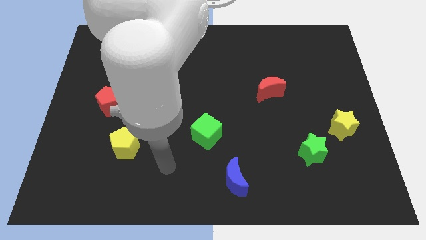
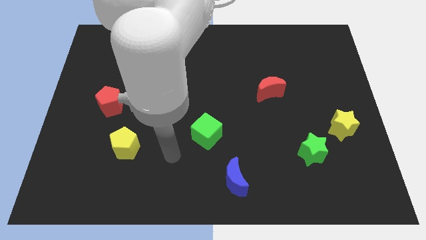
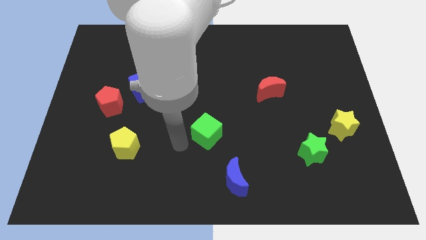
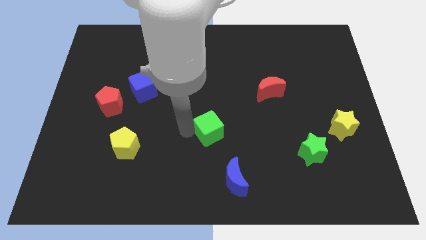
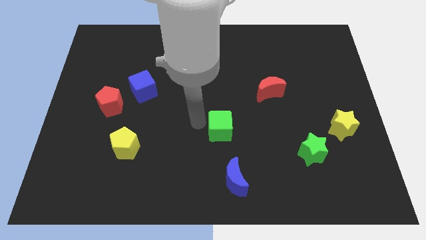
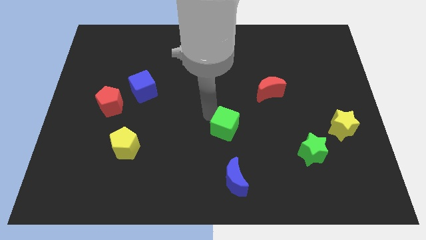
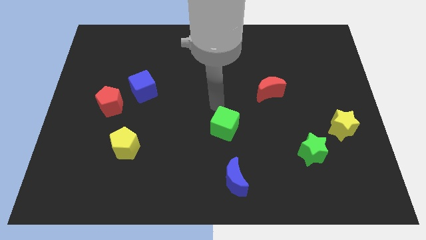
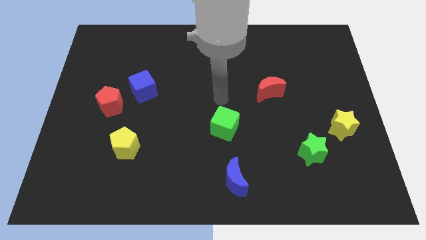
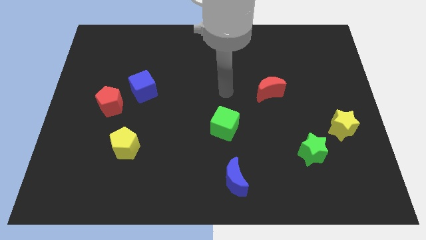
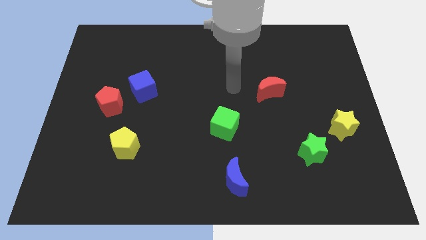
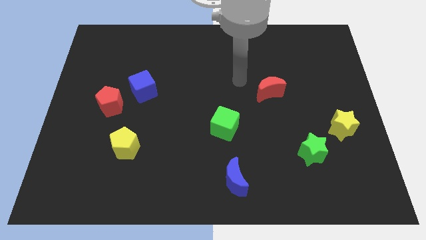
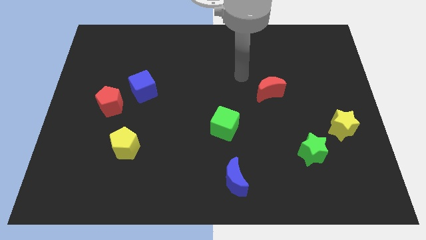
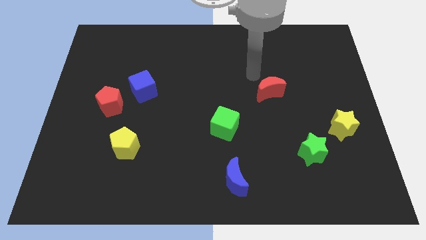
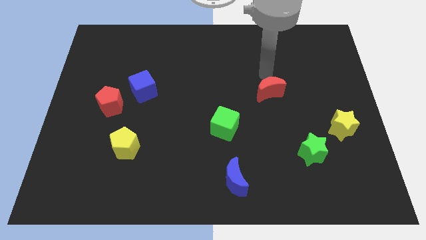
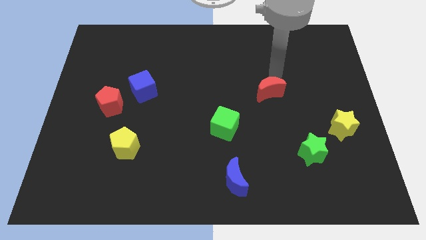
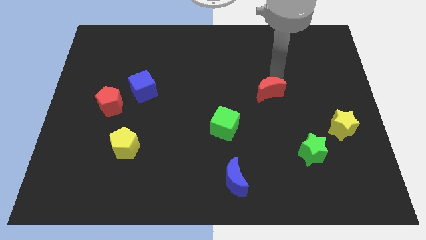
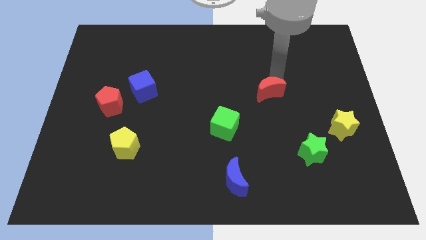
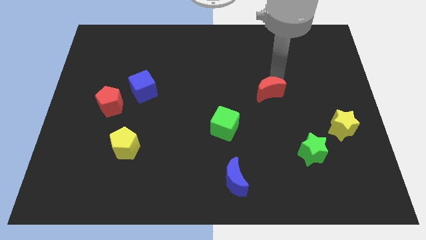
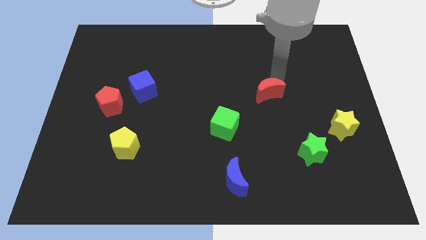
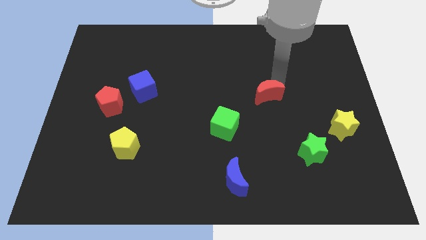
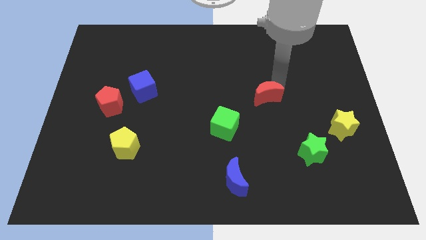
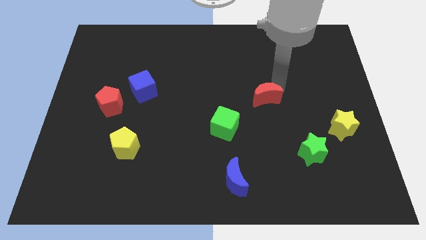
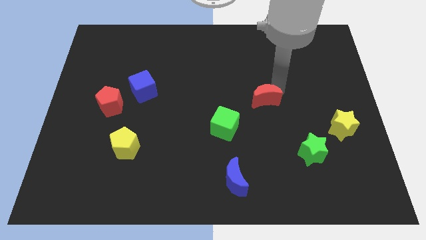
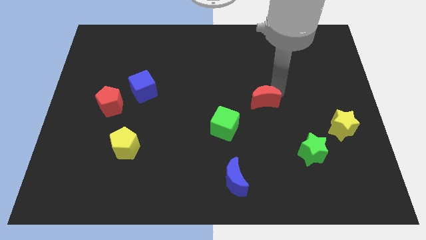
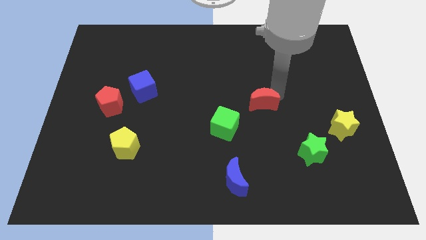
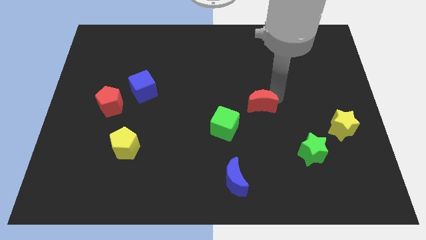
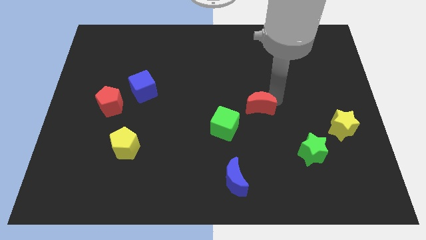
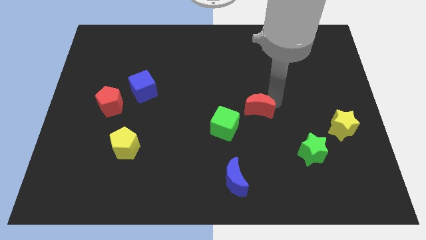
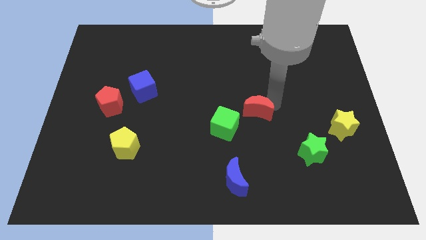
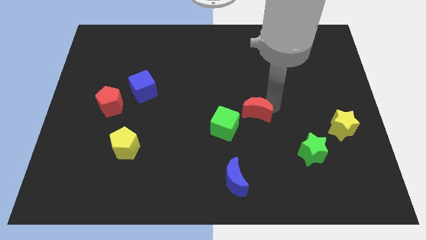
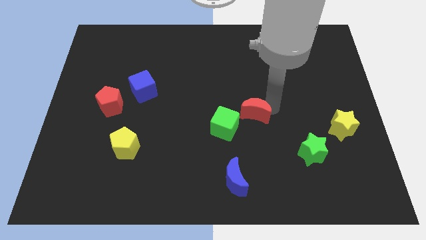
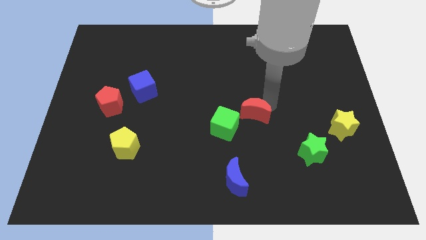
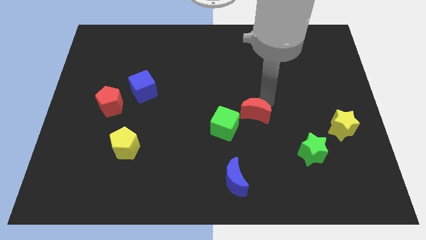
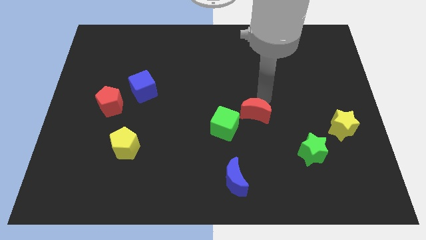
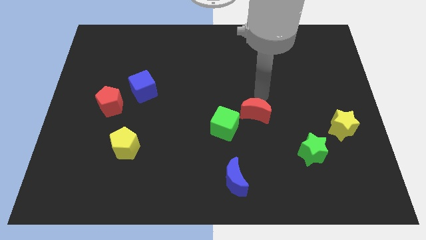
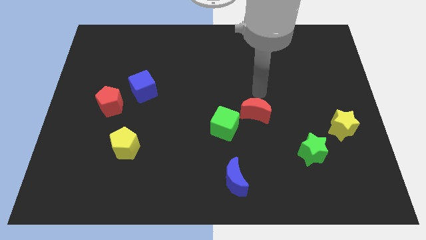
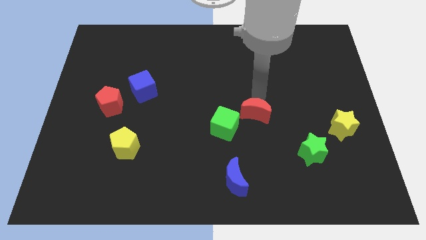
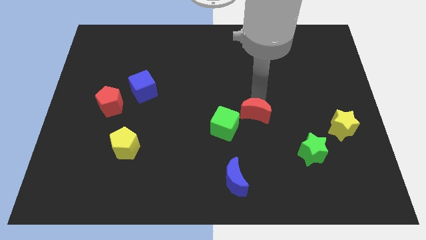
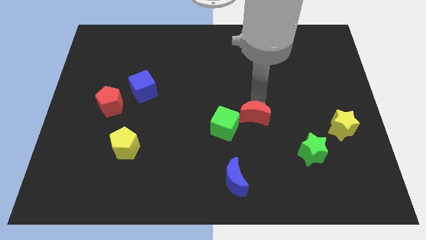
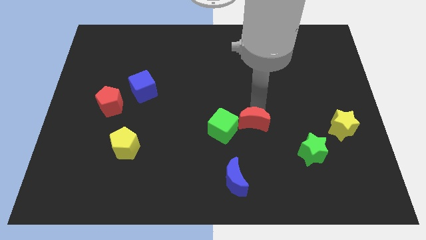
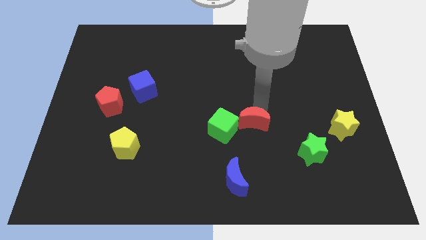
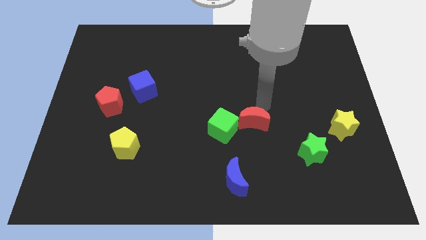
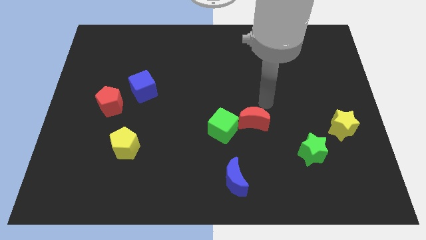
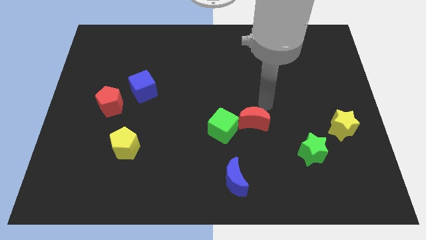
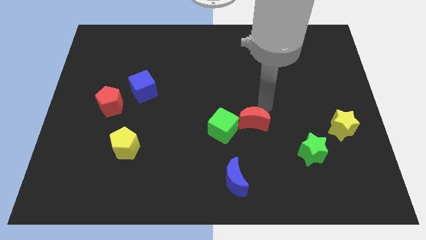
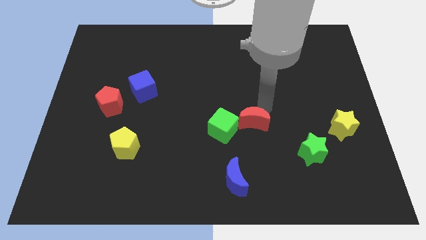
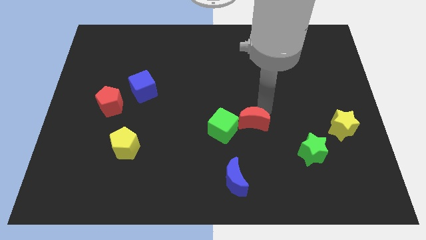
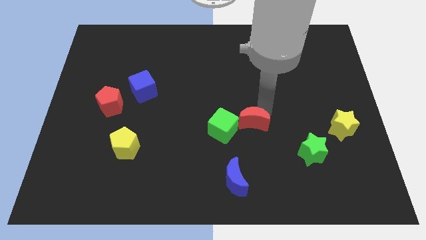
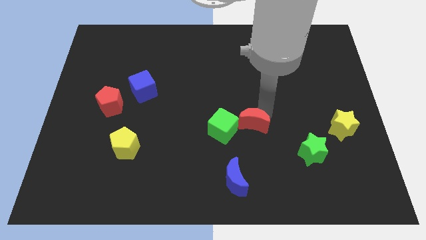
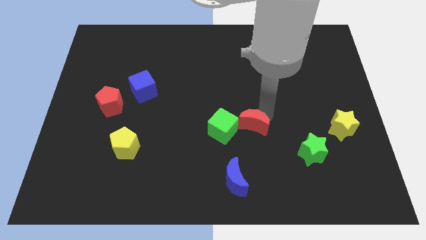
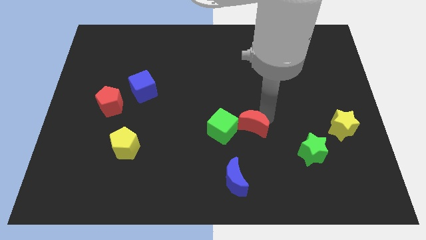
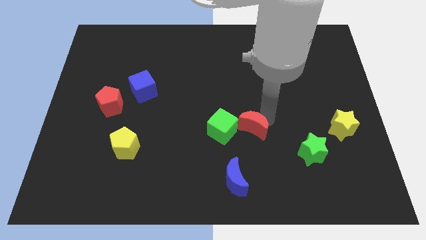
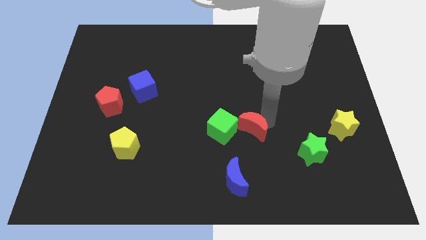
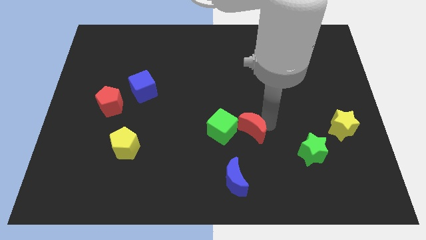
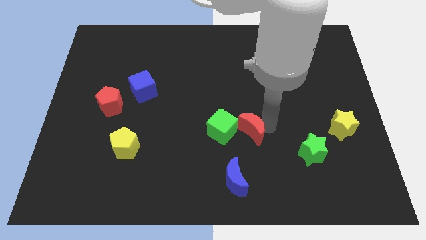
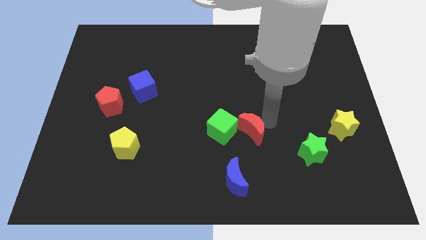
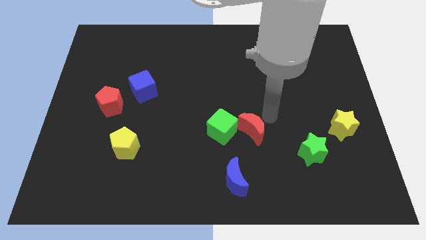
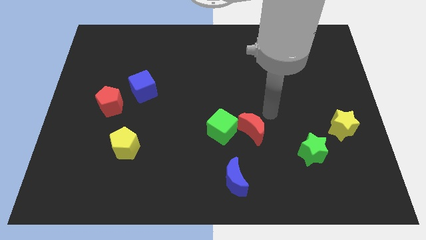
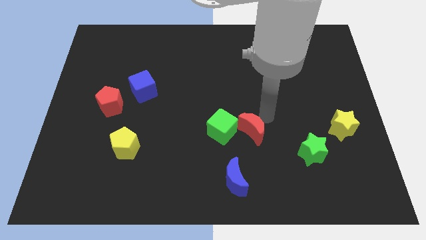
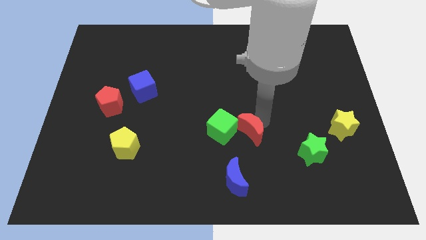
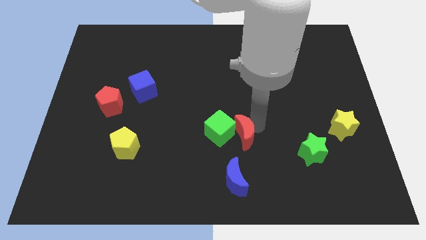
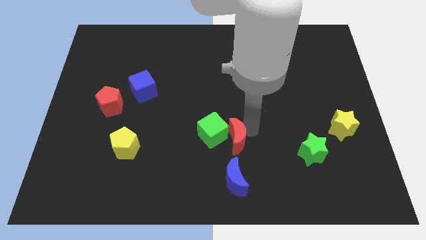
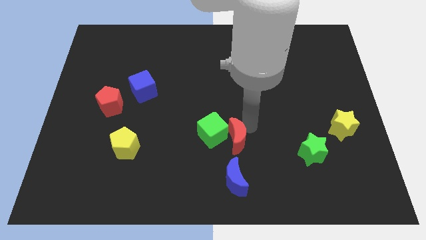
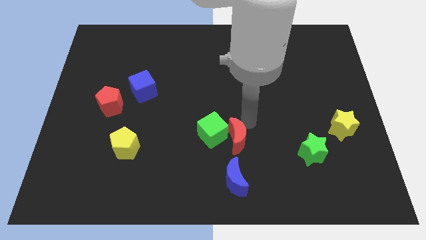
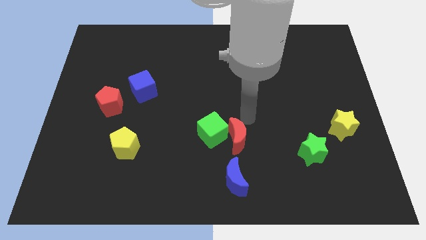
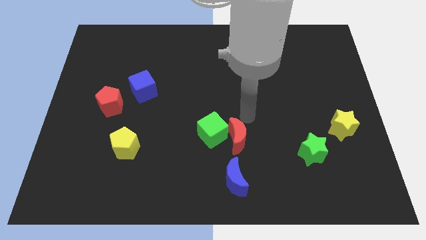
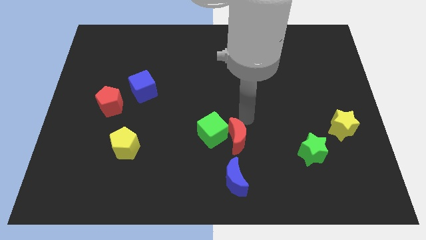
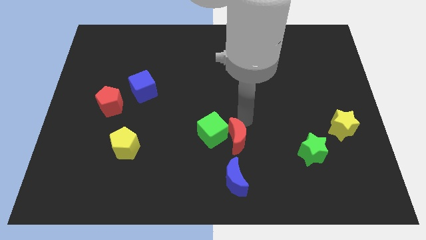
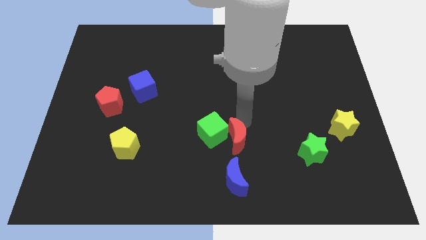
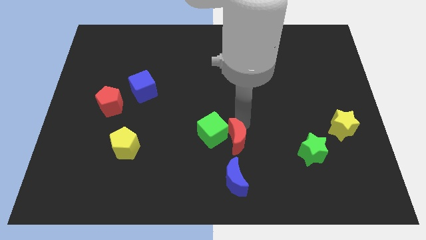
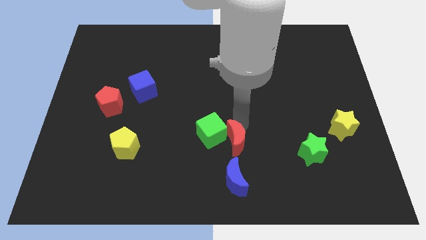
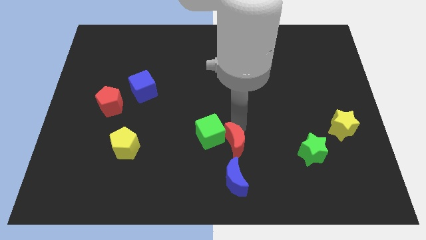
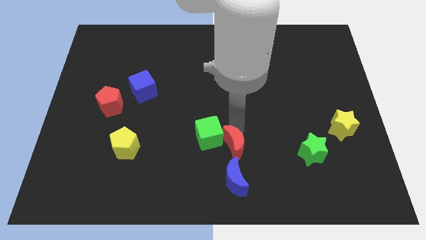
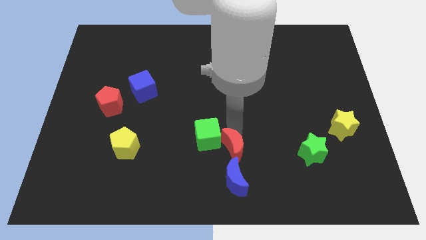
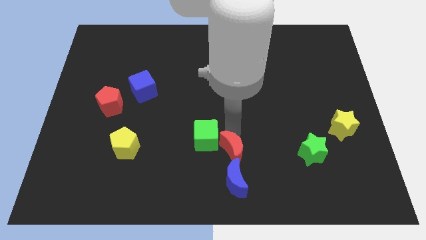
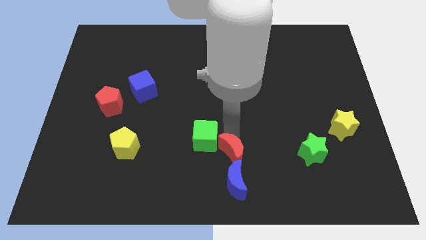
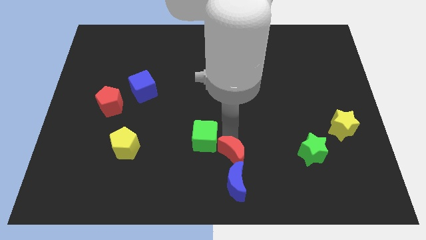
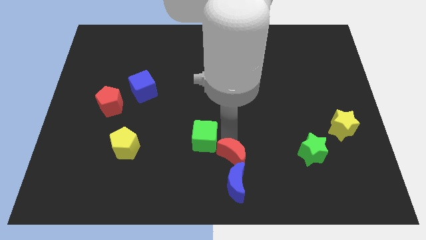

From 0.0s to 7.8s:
push the red moon to the bottom
